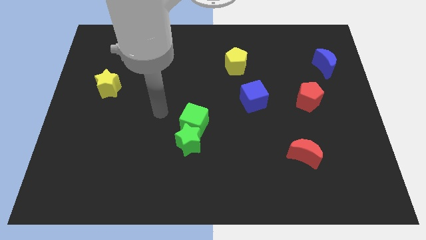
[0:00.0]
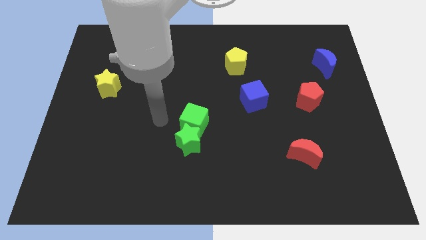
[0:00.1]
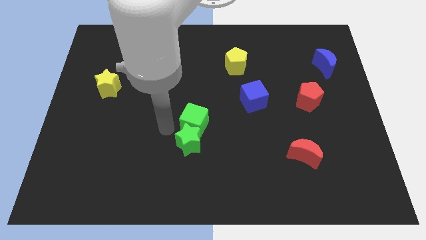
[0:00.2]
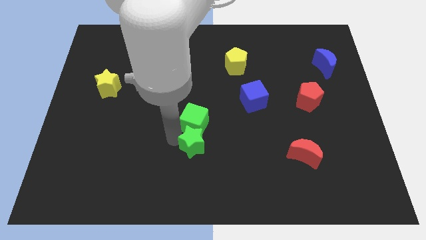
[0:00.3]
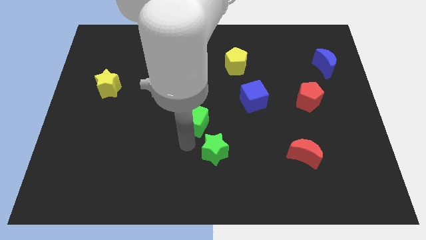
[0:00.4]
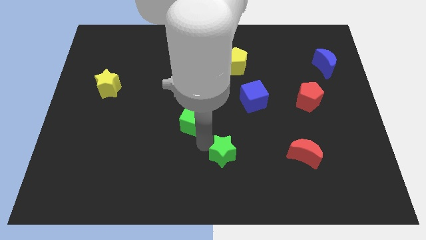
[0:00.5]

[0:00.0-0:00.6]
separate the green cube from the green star

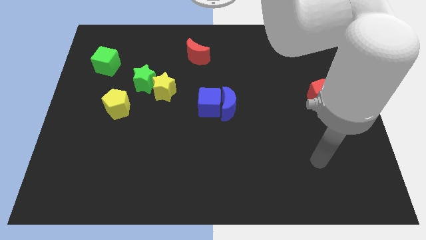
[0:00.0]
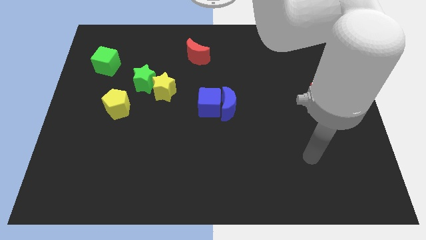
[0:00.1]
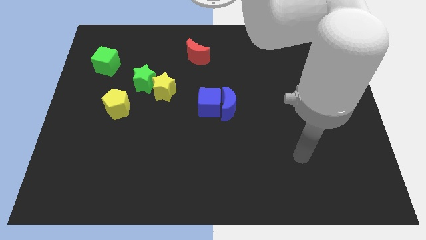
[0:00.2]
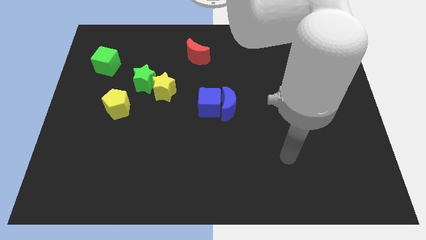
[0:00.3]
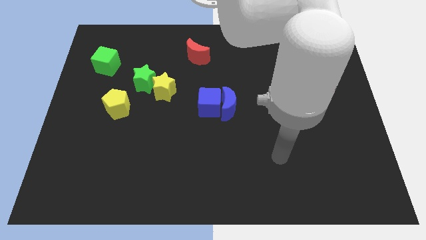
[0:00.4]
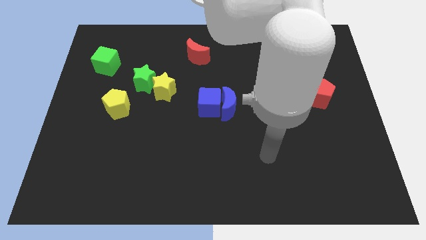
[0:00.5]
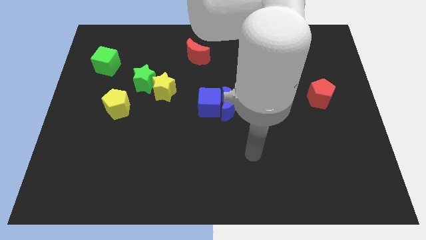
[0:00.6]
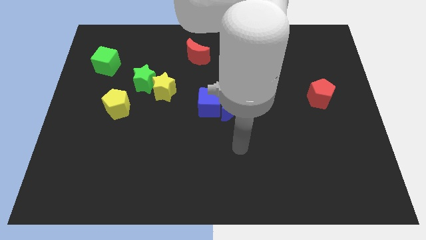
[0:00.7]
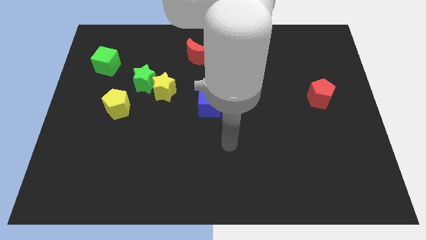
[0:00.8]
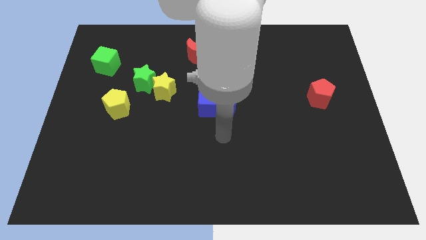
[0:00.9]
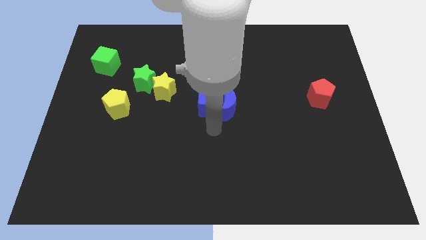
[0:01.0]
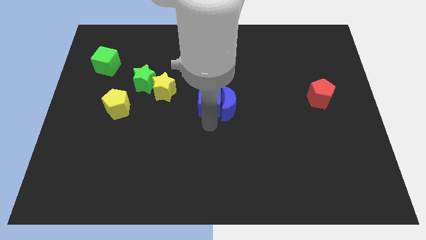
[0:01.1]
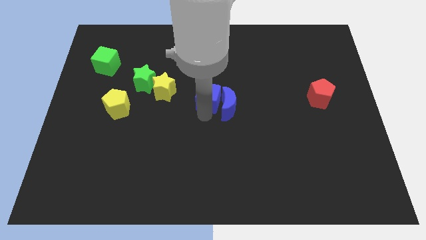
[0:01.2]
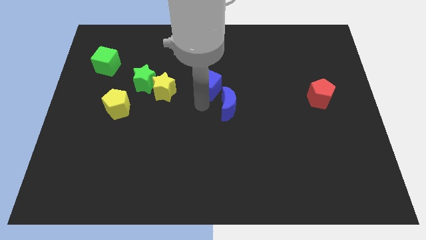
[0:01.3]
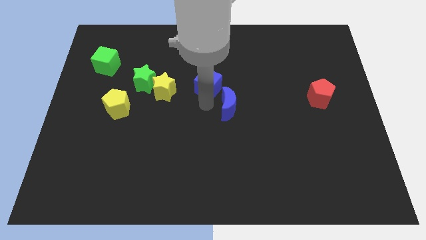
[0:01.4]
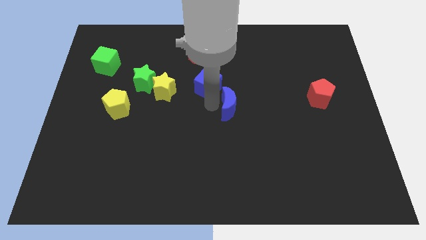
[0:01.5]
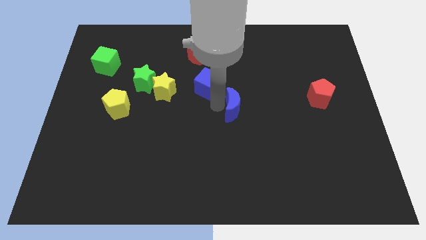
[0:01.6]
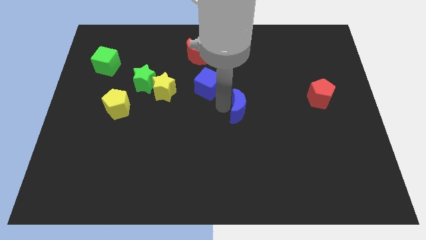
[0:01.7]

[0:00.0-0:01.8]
move the blue moon away from the blue cube

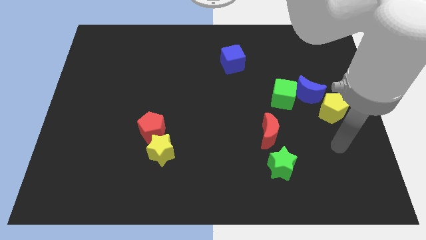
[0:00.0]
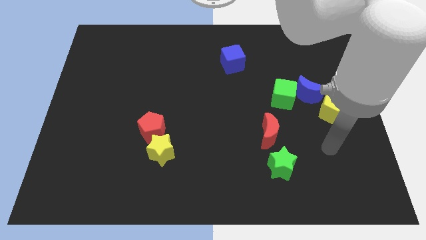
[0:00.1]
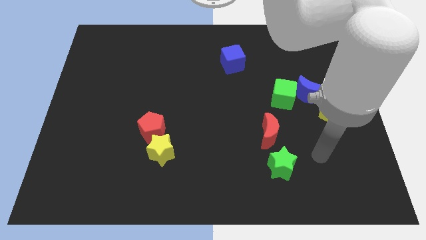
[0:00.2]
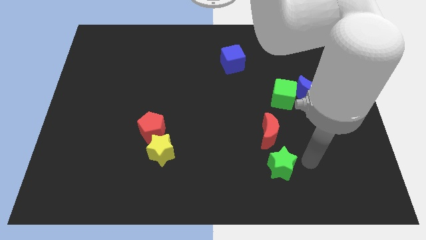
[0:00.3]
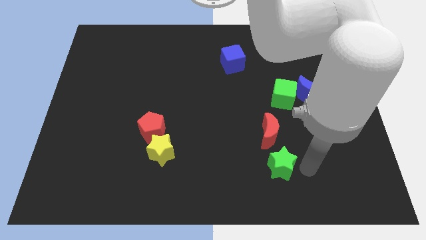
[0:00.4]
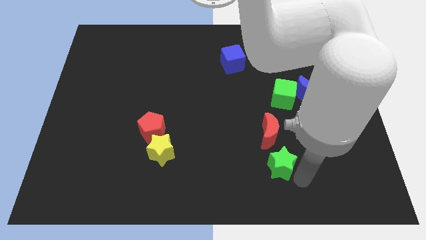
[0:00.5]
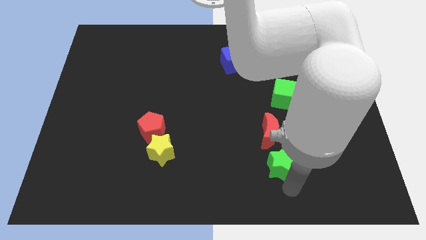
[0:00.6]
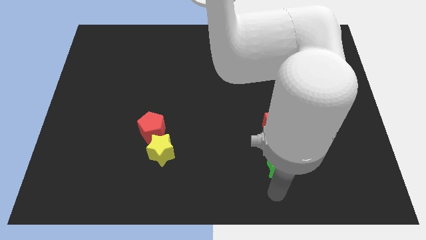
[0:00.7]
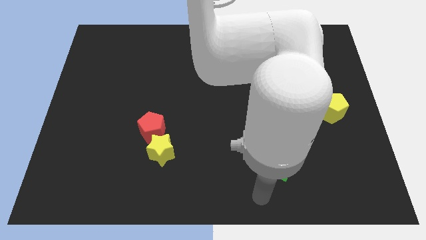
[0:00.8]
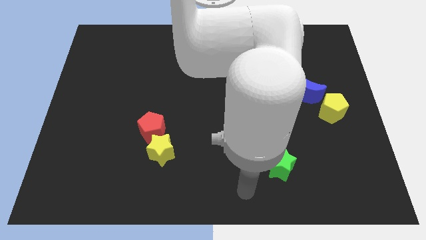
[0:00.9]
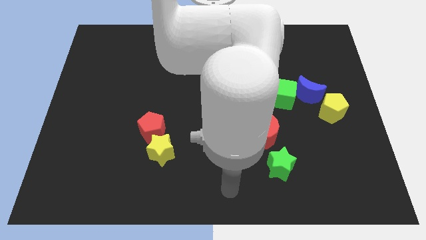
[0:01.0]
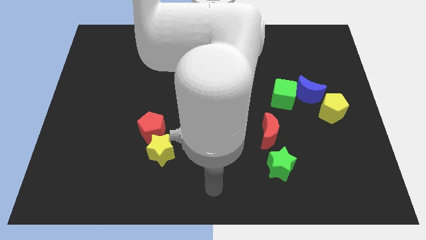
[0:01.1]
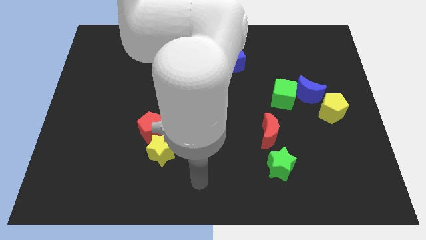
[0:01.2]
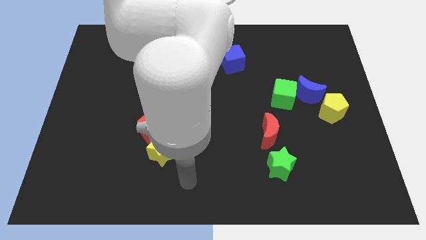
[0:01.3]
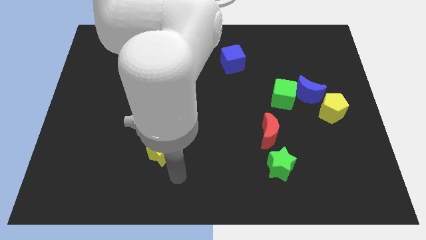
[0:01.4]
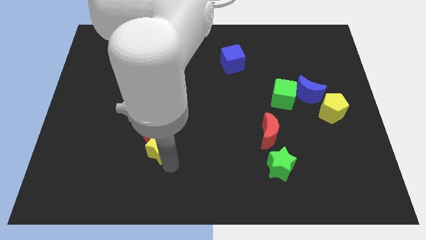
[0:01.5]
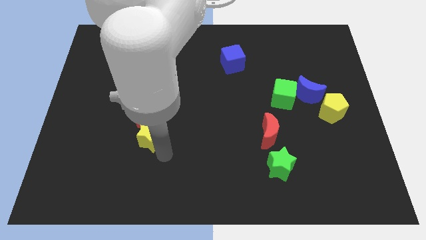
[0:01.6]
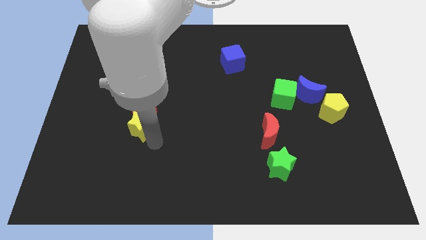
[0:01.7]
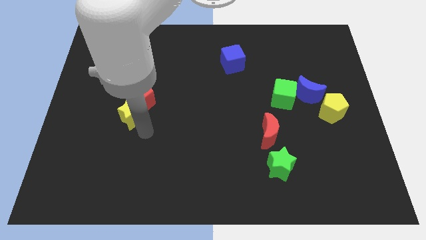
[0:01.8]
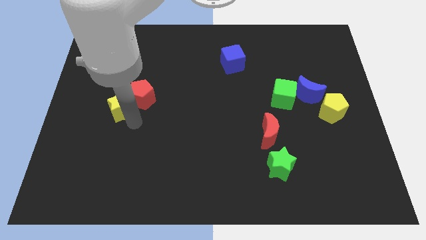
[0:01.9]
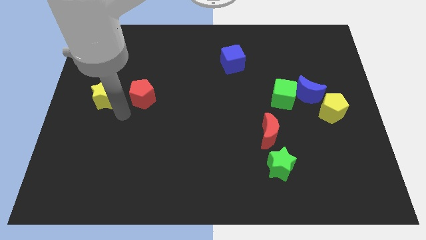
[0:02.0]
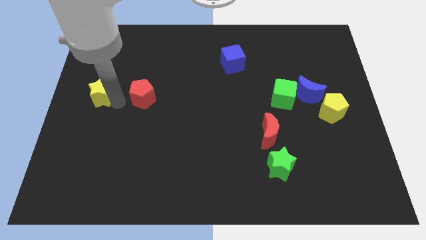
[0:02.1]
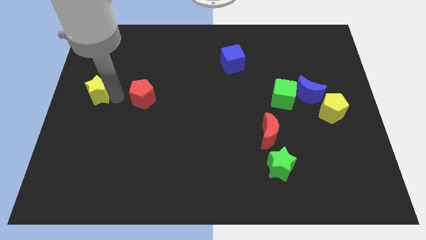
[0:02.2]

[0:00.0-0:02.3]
pull the red pentagon apart from the yellow star

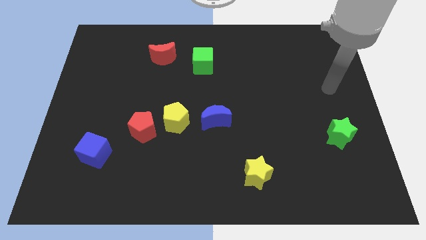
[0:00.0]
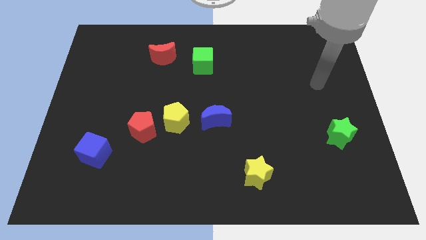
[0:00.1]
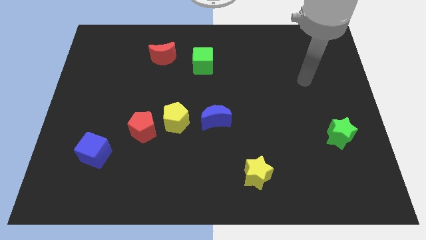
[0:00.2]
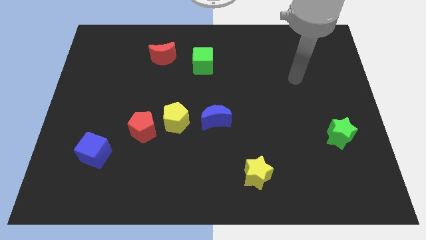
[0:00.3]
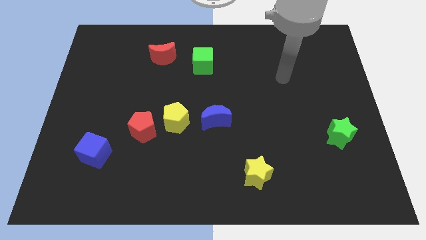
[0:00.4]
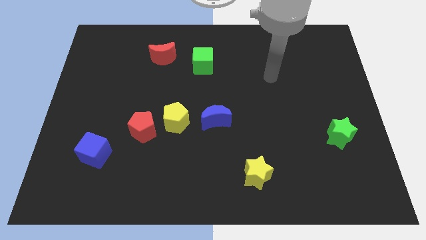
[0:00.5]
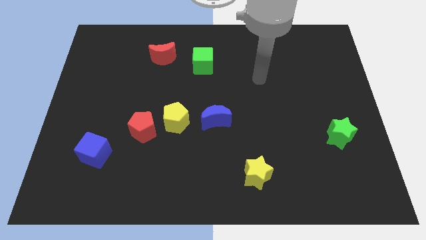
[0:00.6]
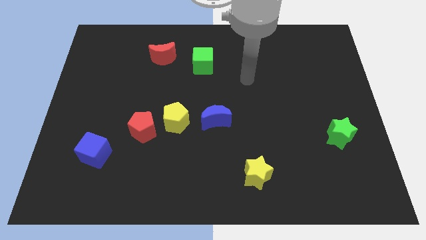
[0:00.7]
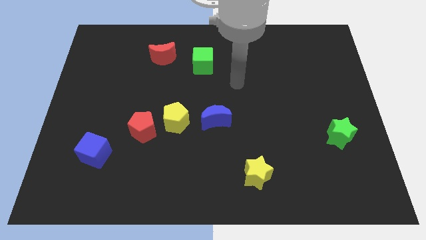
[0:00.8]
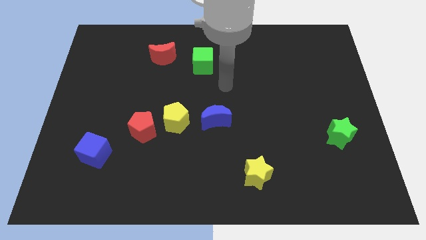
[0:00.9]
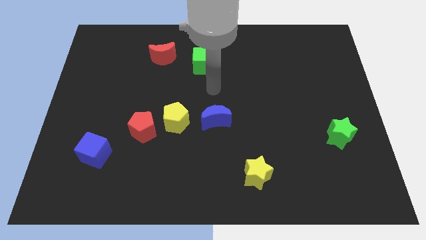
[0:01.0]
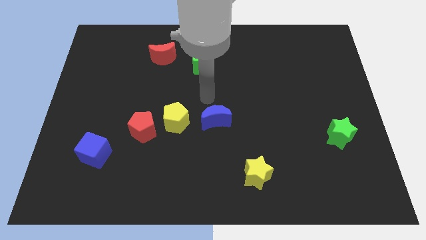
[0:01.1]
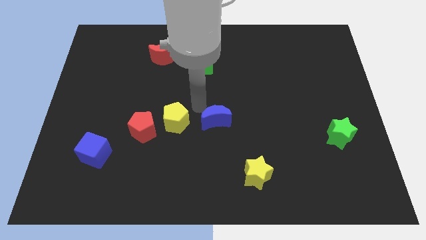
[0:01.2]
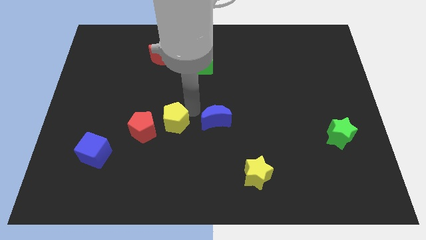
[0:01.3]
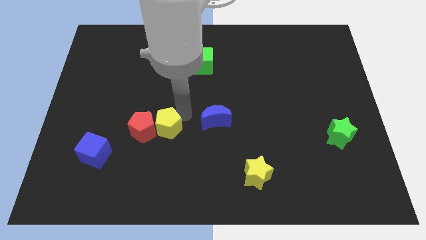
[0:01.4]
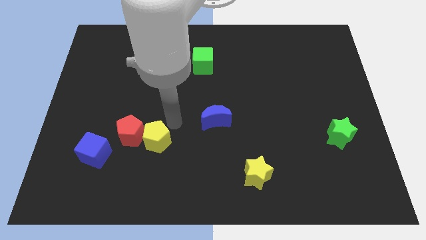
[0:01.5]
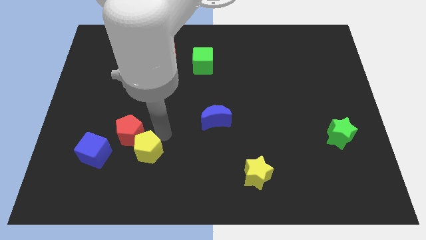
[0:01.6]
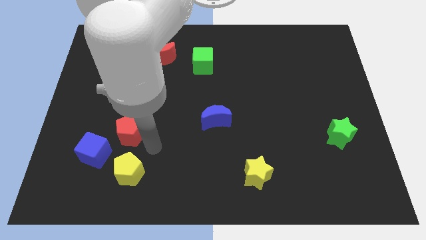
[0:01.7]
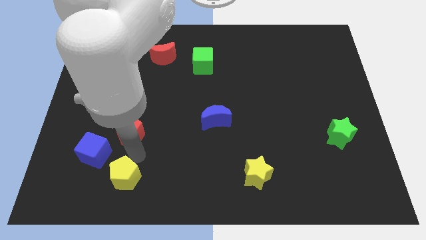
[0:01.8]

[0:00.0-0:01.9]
separate the red pentagon from the yellow pentagon

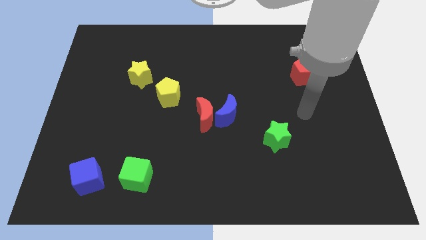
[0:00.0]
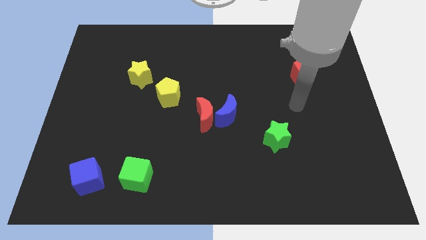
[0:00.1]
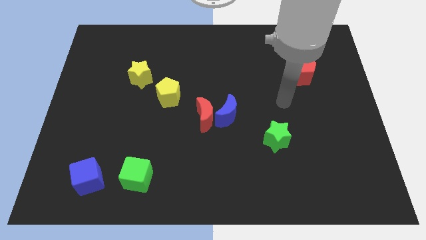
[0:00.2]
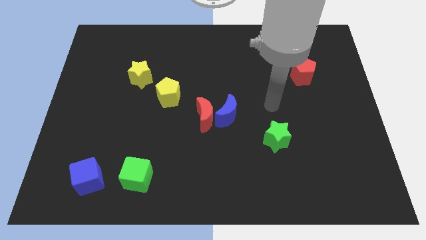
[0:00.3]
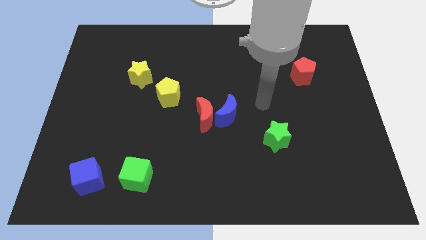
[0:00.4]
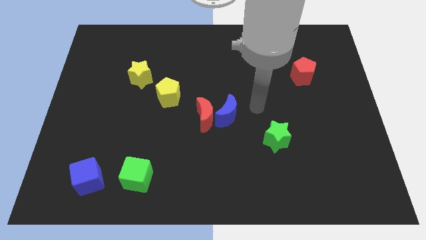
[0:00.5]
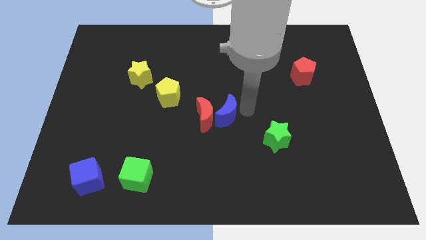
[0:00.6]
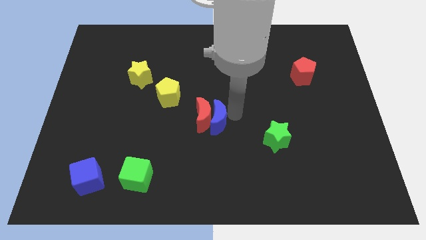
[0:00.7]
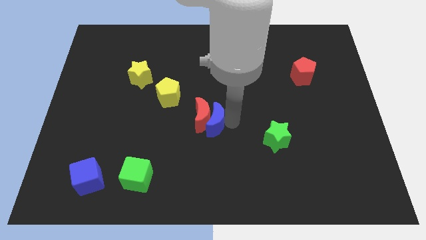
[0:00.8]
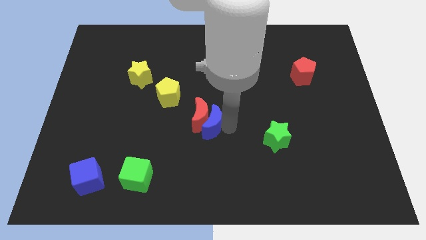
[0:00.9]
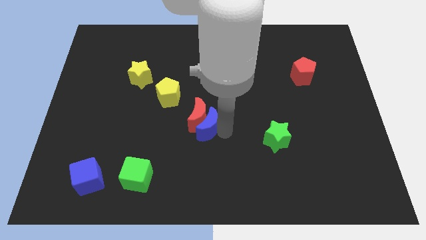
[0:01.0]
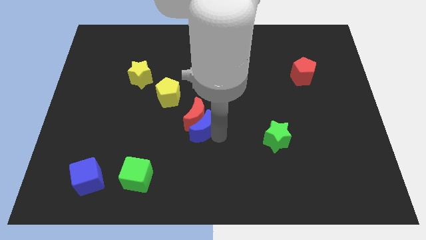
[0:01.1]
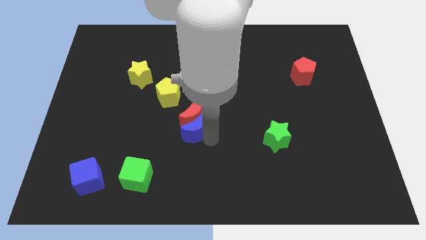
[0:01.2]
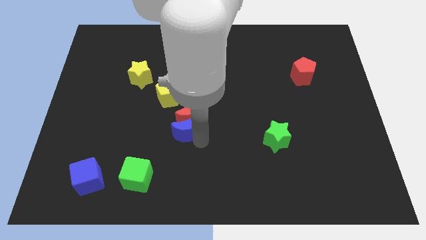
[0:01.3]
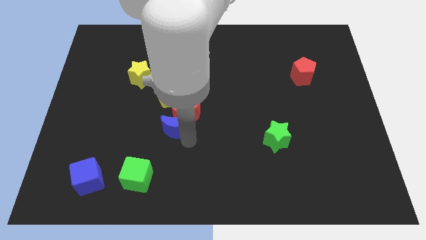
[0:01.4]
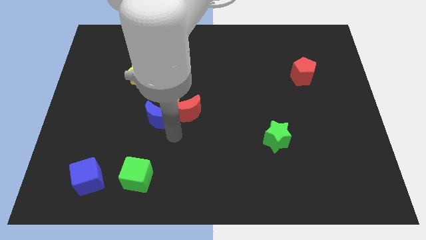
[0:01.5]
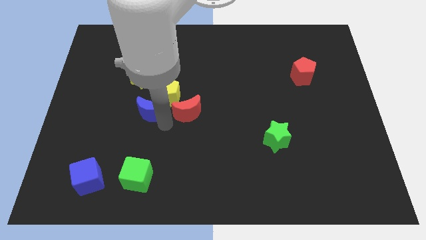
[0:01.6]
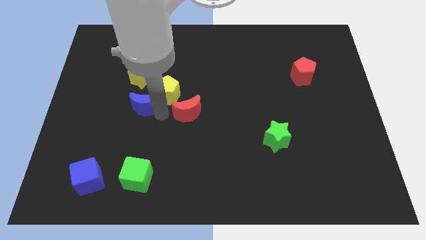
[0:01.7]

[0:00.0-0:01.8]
move the red moon away from the blue moon

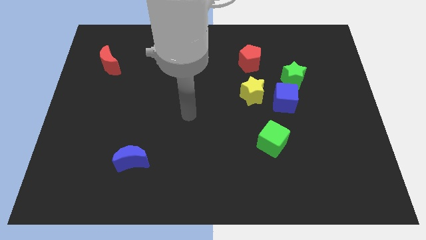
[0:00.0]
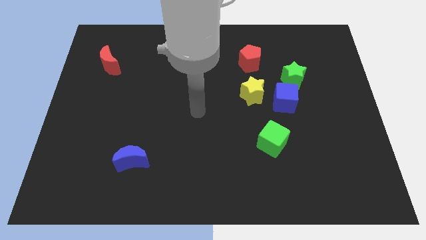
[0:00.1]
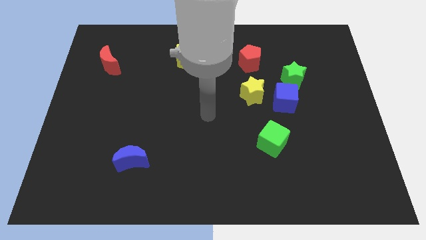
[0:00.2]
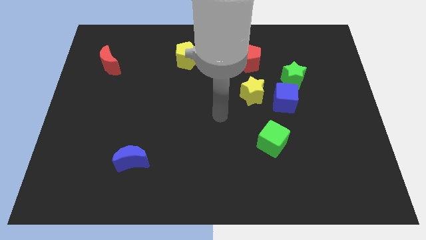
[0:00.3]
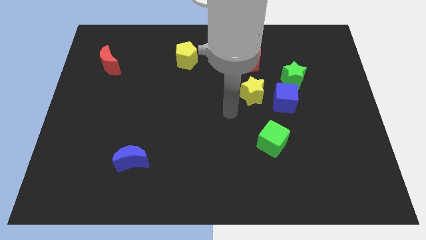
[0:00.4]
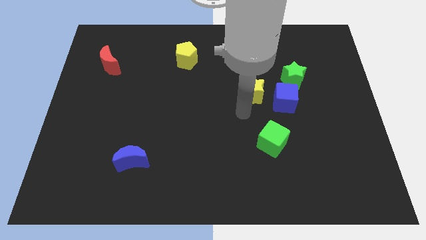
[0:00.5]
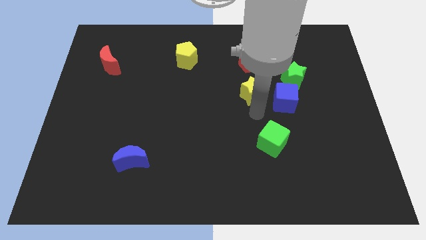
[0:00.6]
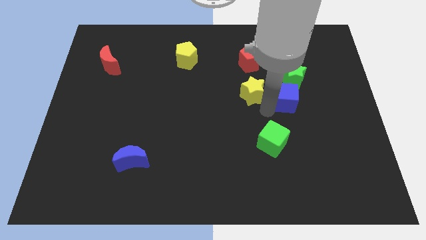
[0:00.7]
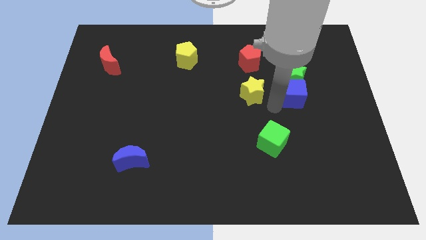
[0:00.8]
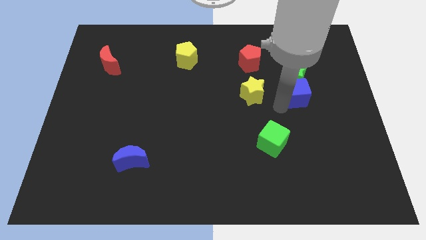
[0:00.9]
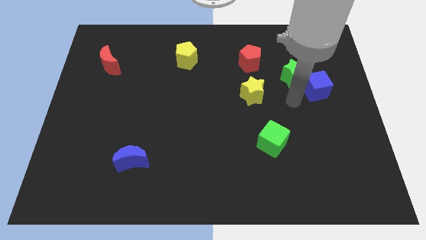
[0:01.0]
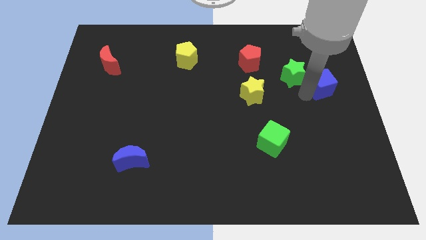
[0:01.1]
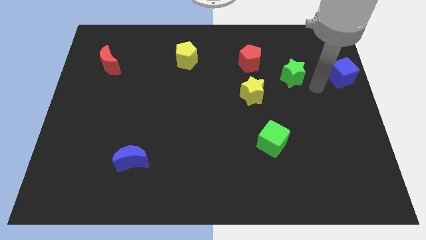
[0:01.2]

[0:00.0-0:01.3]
move the green star away from the blue cube
